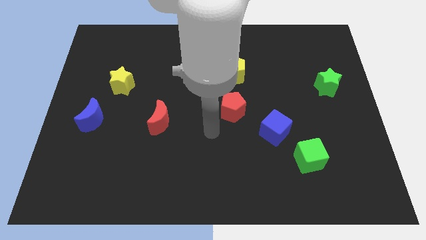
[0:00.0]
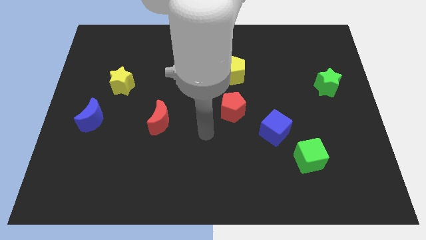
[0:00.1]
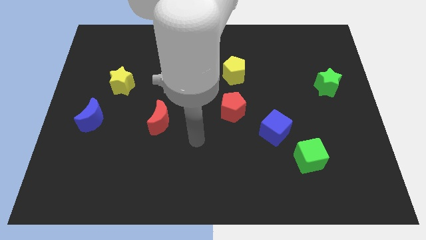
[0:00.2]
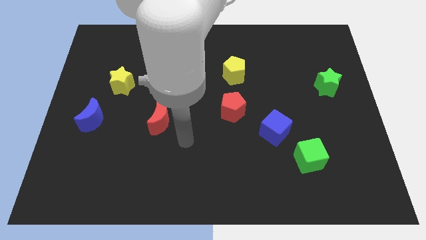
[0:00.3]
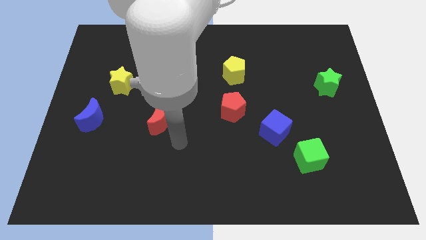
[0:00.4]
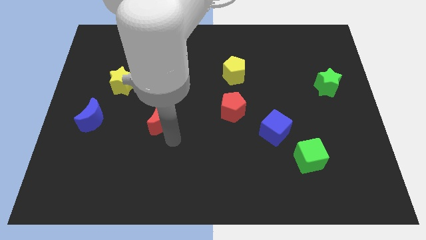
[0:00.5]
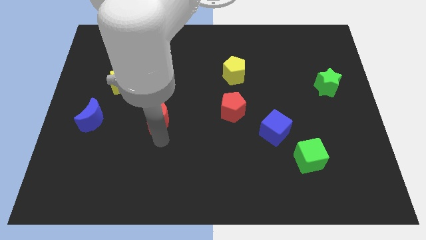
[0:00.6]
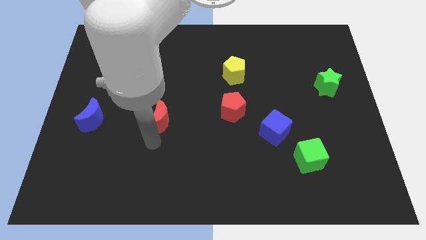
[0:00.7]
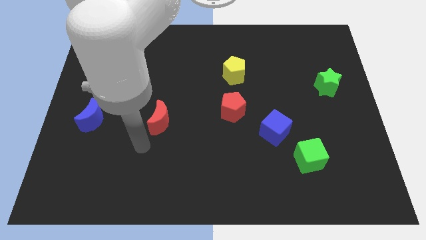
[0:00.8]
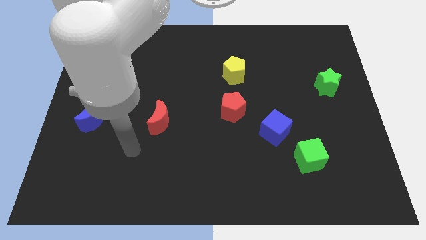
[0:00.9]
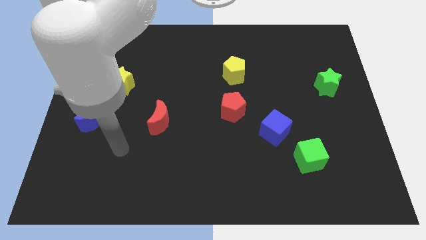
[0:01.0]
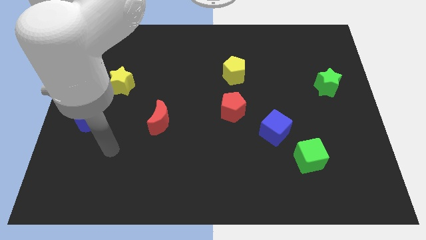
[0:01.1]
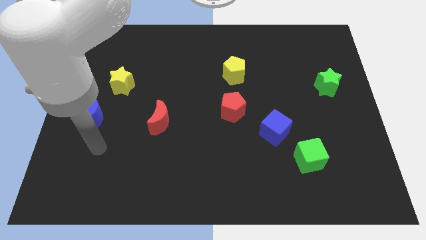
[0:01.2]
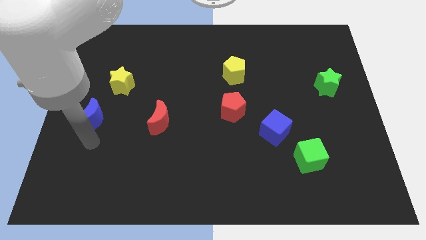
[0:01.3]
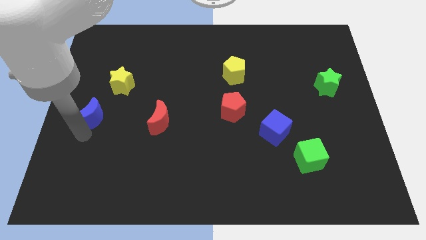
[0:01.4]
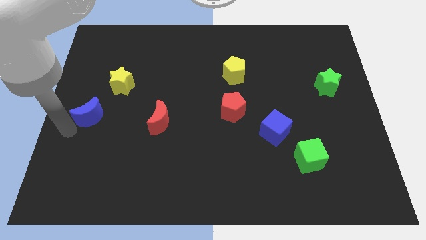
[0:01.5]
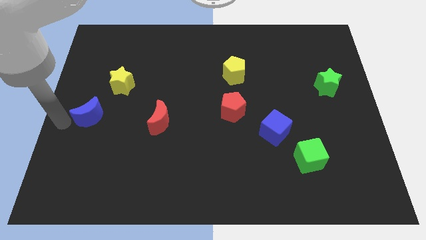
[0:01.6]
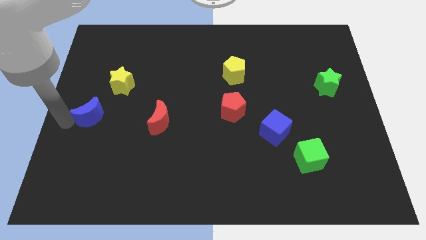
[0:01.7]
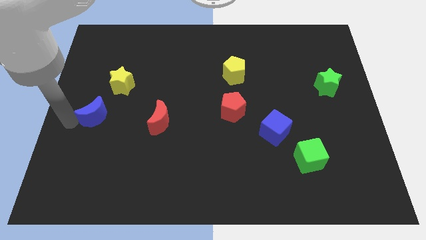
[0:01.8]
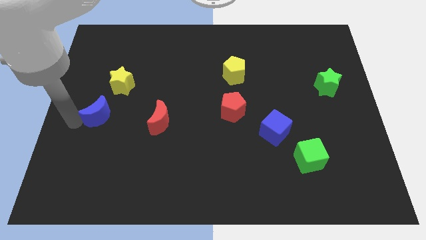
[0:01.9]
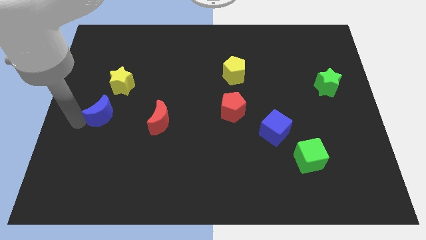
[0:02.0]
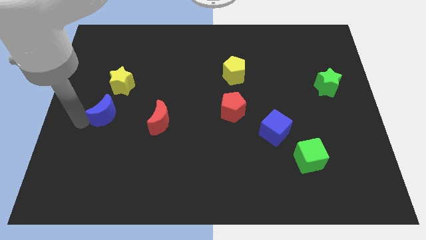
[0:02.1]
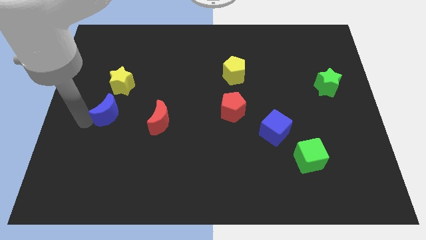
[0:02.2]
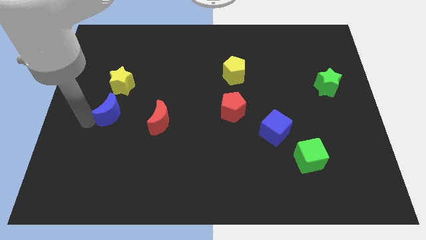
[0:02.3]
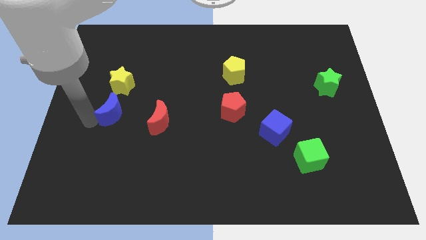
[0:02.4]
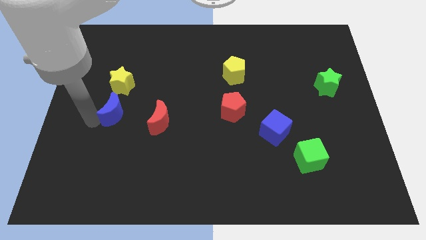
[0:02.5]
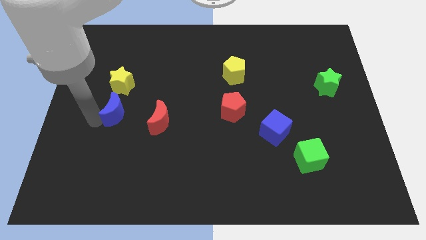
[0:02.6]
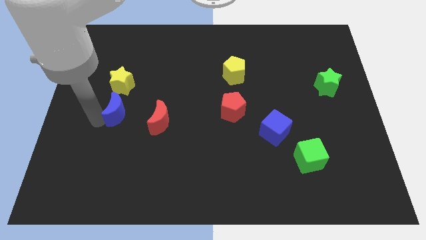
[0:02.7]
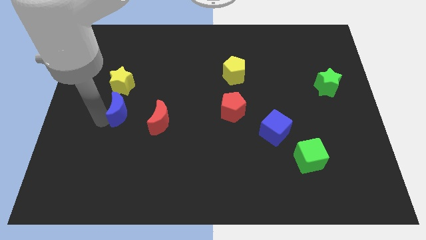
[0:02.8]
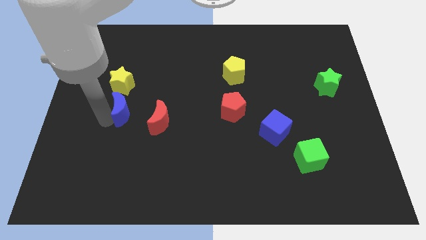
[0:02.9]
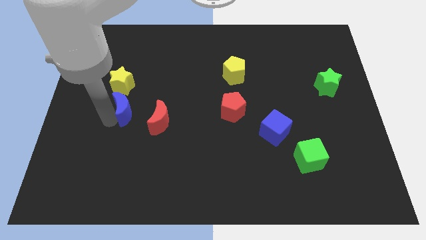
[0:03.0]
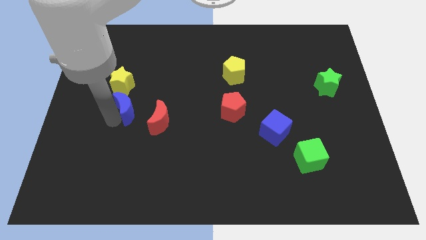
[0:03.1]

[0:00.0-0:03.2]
slightly push the blue moon to the right

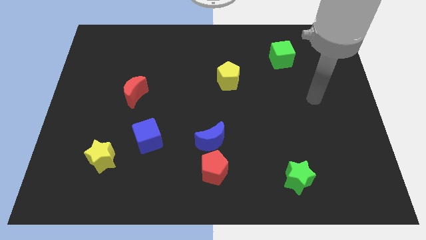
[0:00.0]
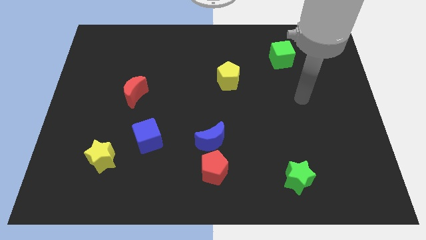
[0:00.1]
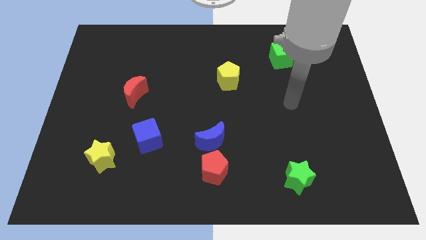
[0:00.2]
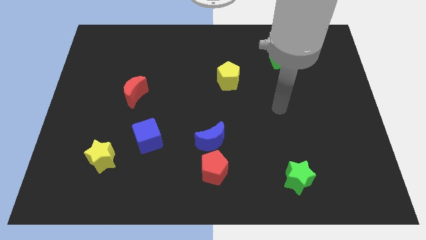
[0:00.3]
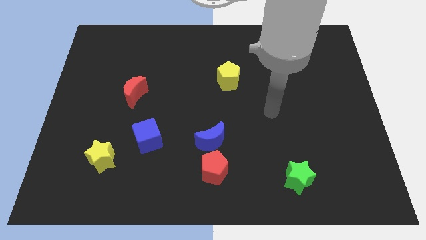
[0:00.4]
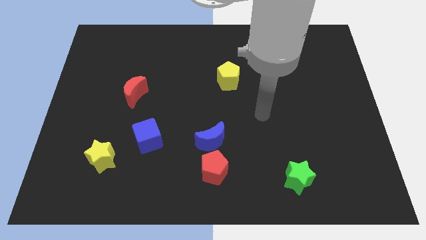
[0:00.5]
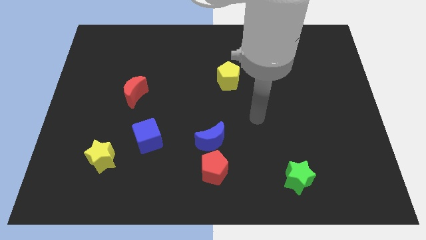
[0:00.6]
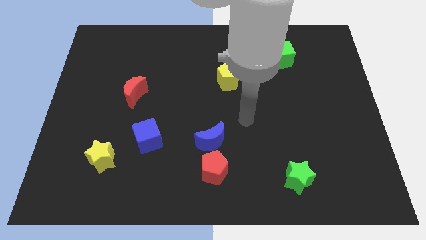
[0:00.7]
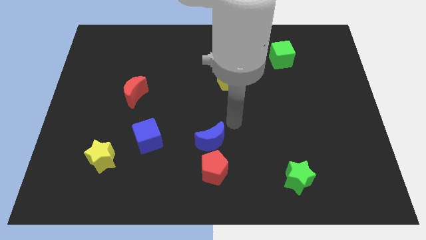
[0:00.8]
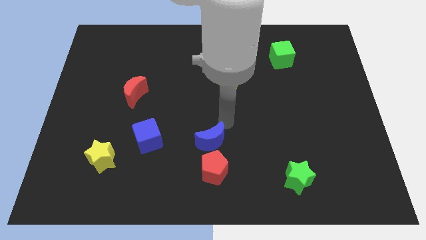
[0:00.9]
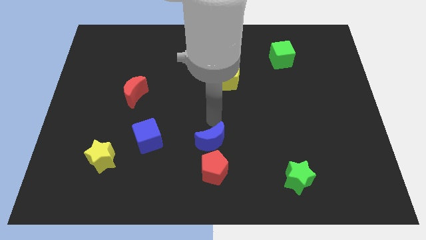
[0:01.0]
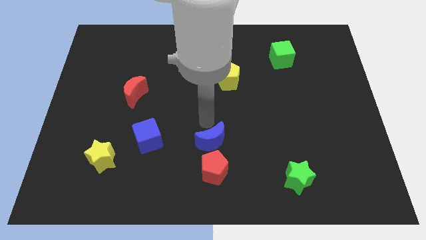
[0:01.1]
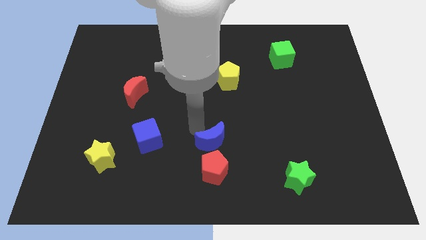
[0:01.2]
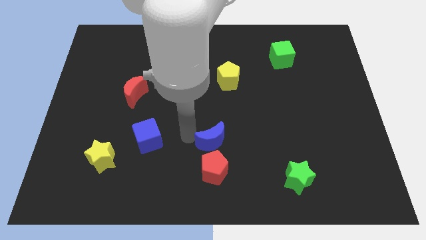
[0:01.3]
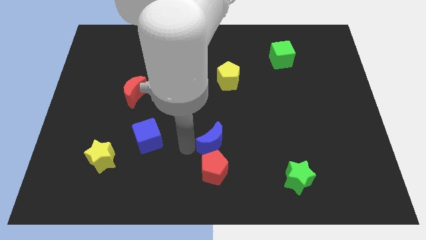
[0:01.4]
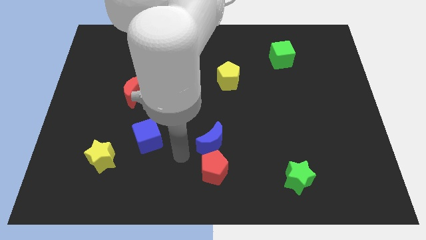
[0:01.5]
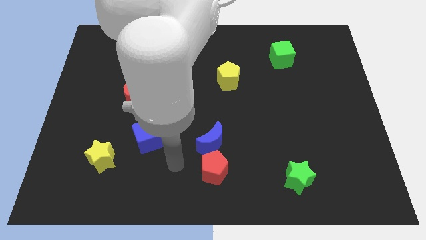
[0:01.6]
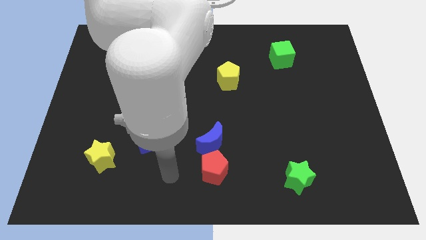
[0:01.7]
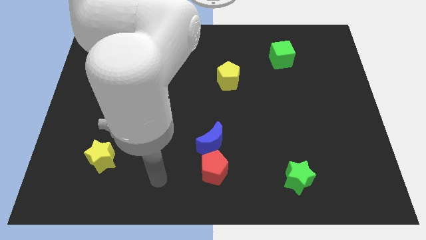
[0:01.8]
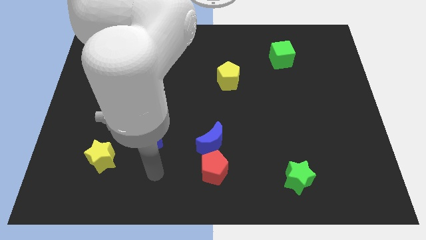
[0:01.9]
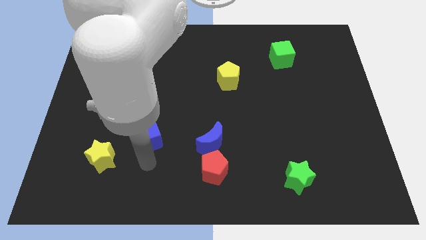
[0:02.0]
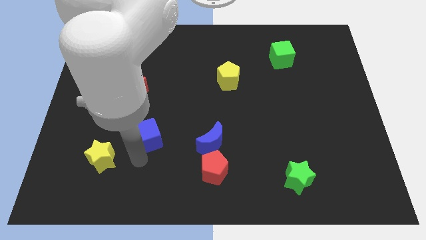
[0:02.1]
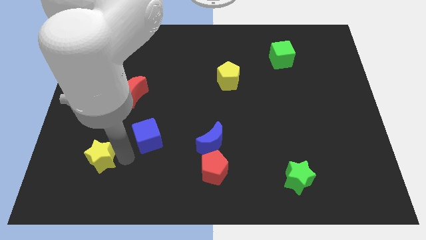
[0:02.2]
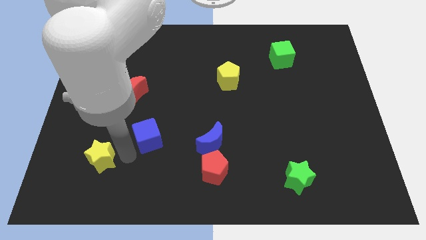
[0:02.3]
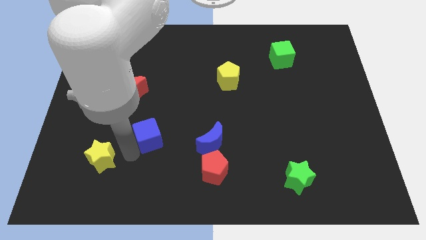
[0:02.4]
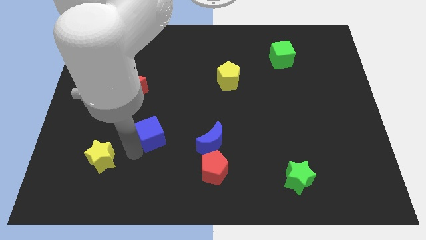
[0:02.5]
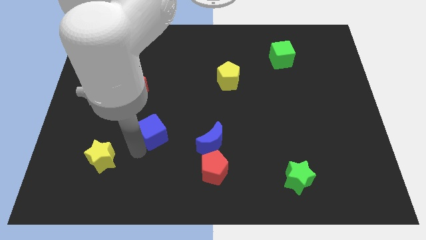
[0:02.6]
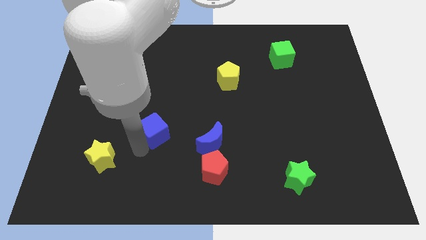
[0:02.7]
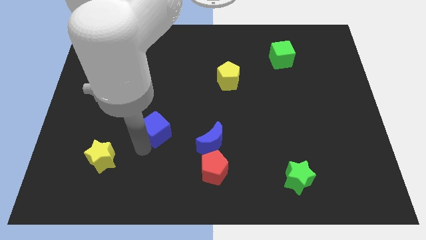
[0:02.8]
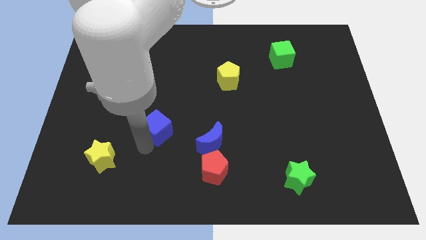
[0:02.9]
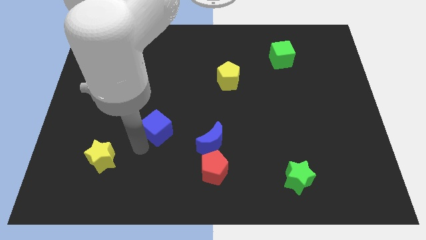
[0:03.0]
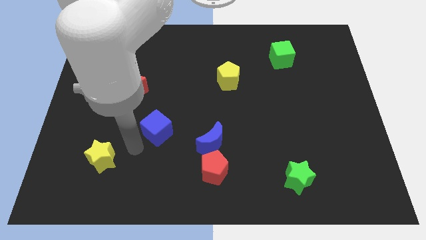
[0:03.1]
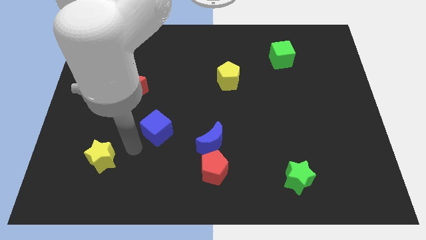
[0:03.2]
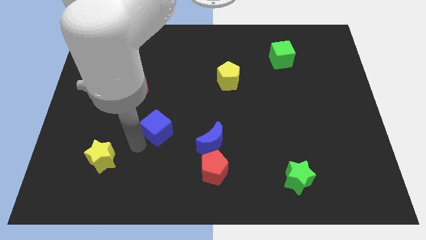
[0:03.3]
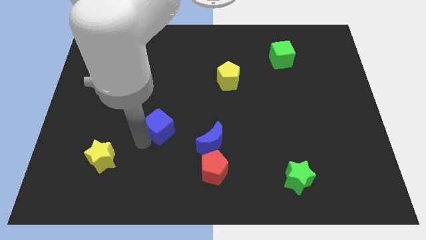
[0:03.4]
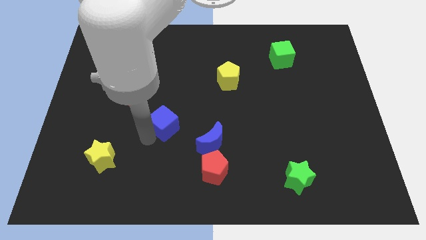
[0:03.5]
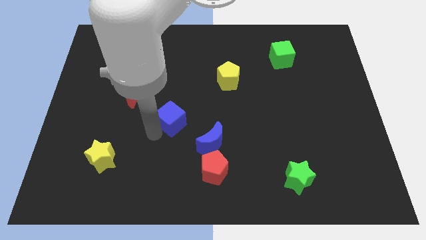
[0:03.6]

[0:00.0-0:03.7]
push the blue cube up and right a little bit

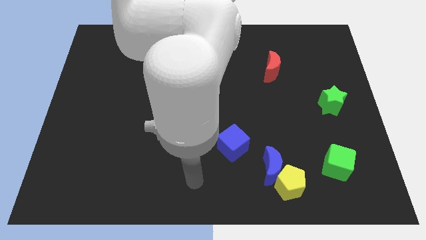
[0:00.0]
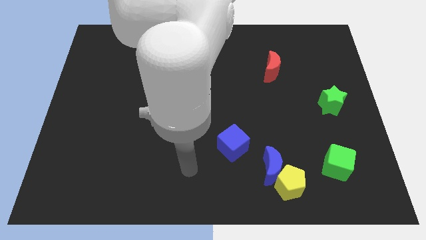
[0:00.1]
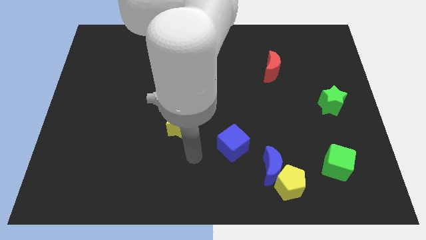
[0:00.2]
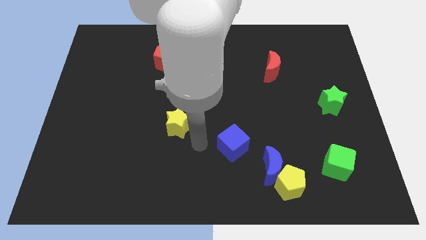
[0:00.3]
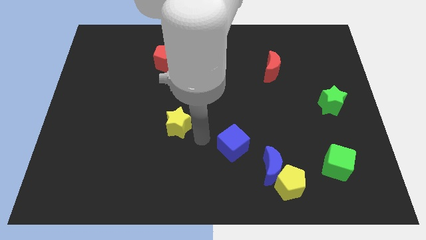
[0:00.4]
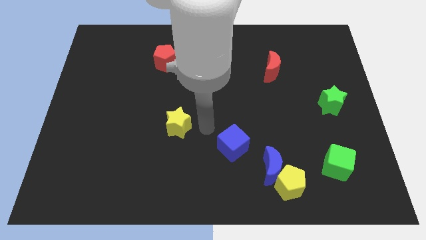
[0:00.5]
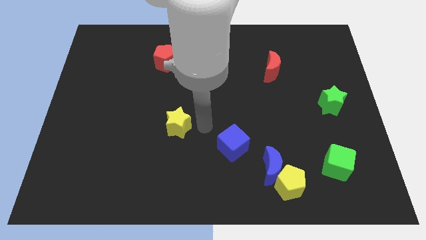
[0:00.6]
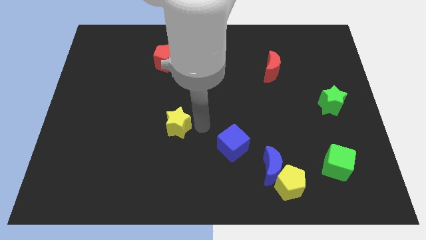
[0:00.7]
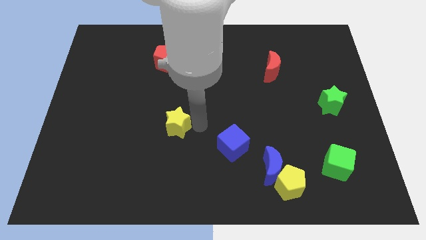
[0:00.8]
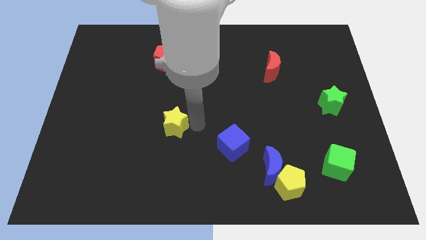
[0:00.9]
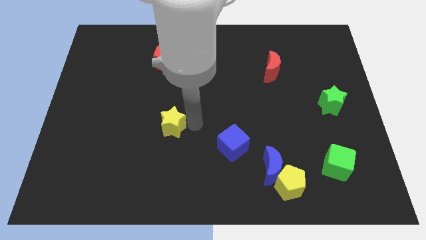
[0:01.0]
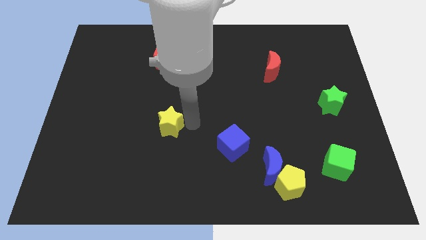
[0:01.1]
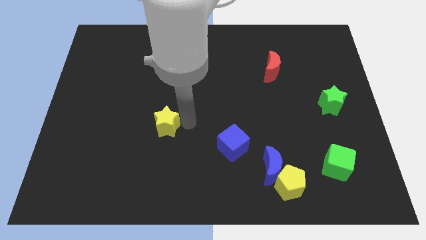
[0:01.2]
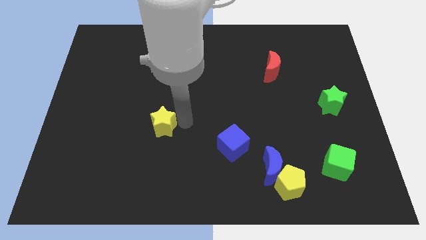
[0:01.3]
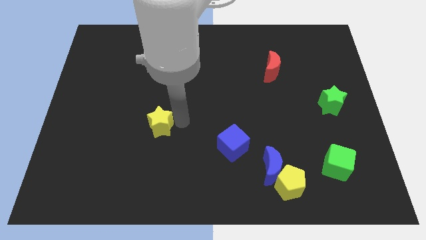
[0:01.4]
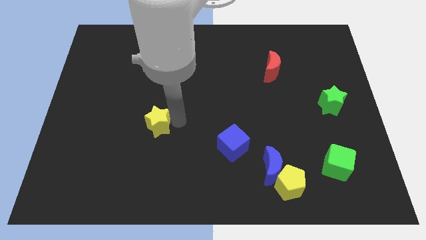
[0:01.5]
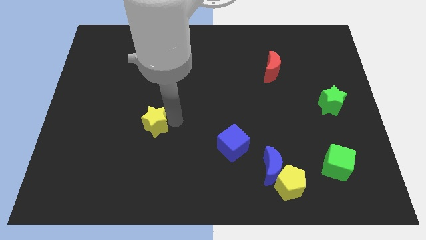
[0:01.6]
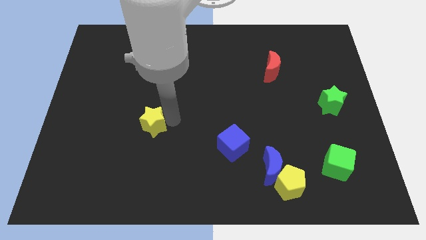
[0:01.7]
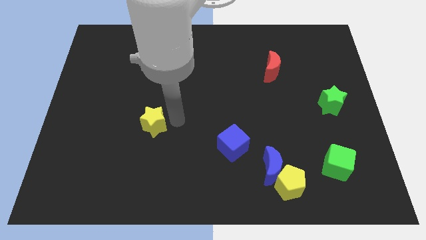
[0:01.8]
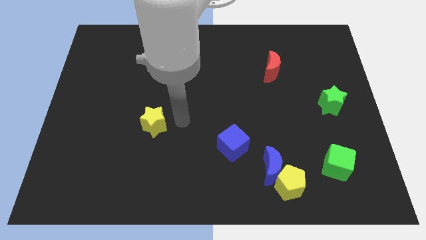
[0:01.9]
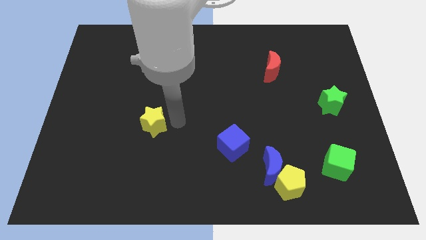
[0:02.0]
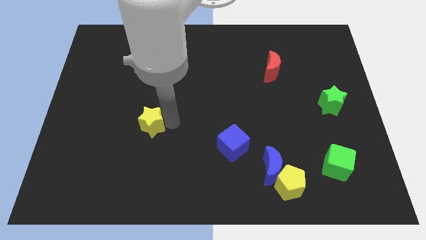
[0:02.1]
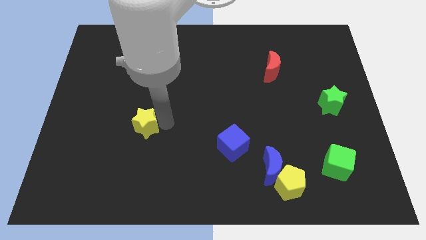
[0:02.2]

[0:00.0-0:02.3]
slightly slide the yellow star to the left
